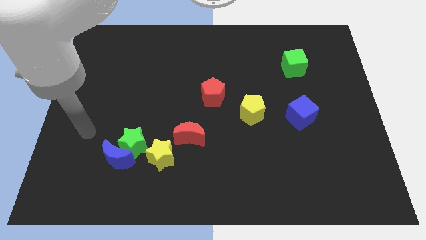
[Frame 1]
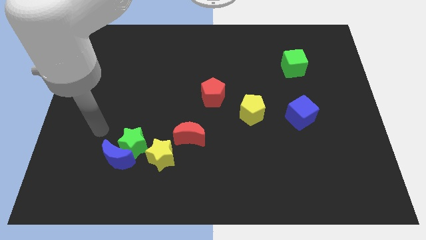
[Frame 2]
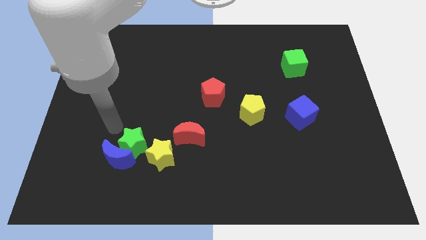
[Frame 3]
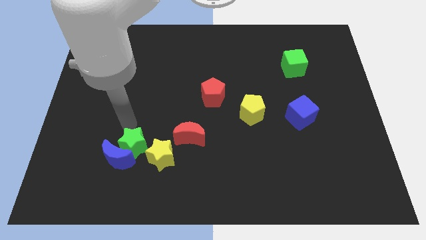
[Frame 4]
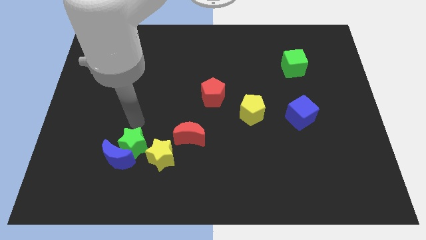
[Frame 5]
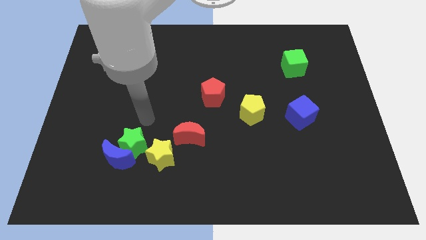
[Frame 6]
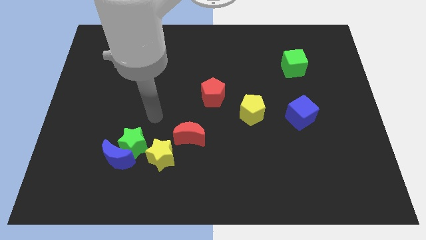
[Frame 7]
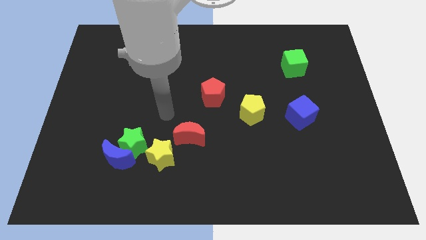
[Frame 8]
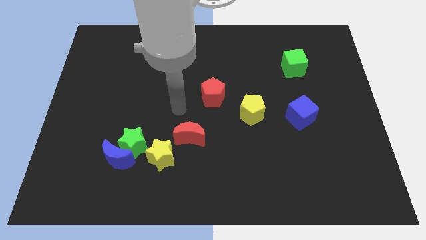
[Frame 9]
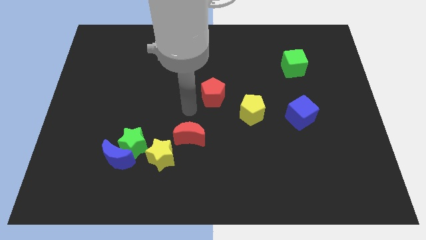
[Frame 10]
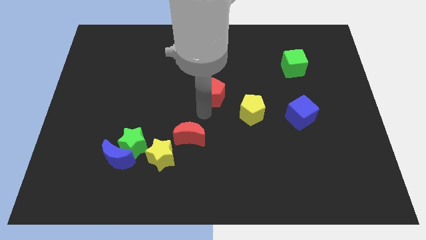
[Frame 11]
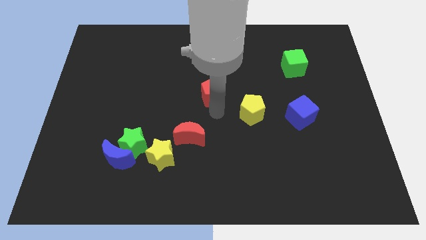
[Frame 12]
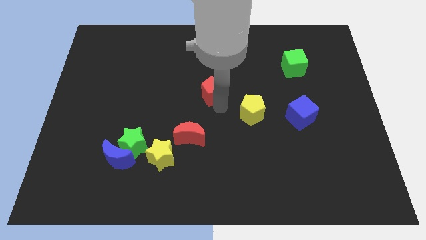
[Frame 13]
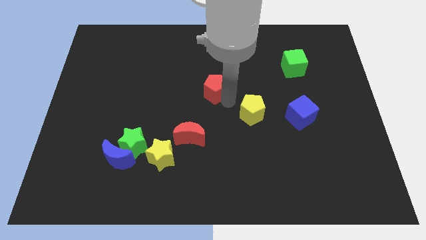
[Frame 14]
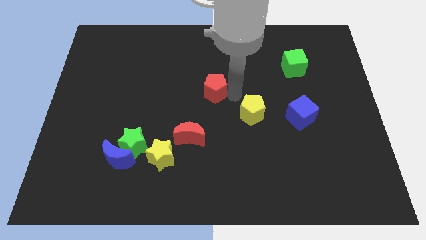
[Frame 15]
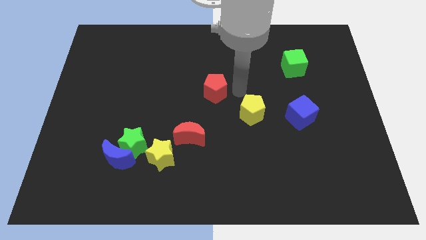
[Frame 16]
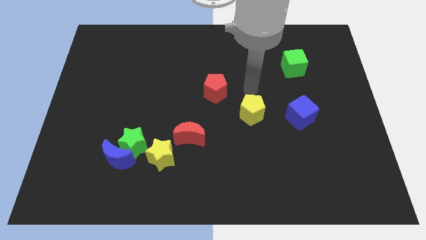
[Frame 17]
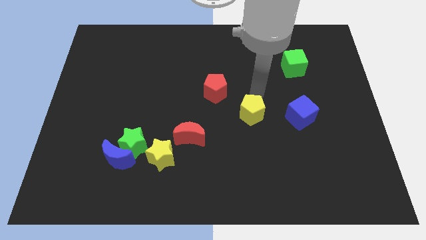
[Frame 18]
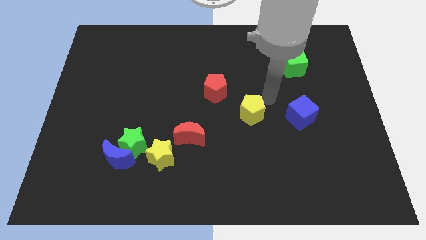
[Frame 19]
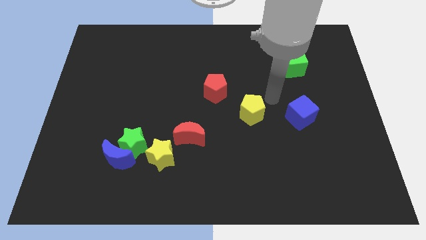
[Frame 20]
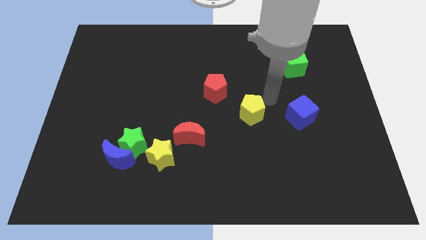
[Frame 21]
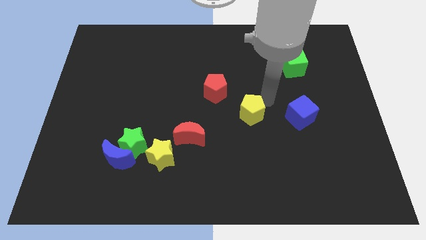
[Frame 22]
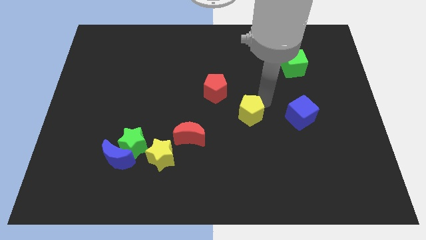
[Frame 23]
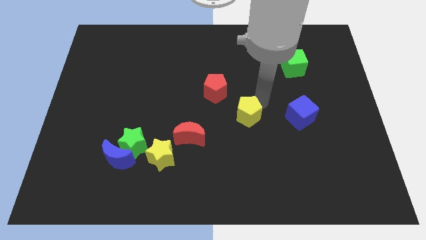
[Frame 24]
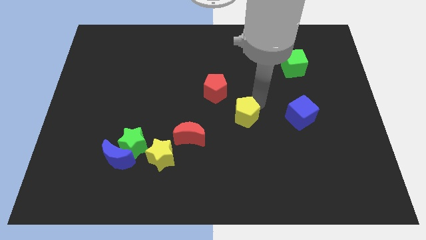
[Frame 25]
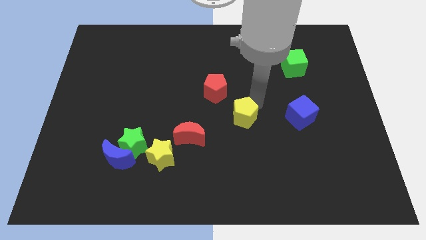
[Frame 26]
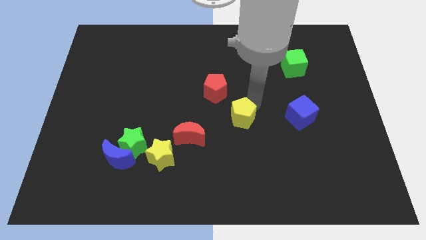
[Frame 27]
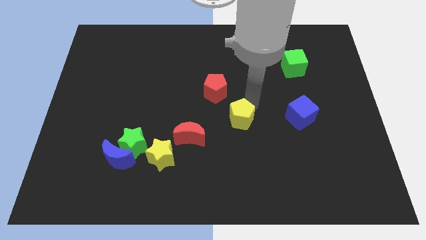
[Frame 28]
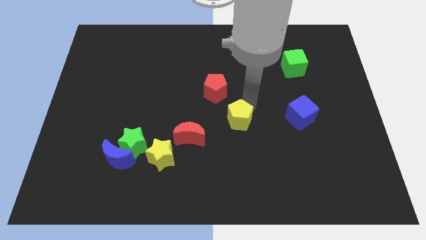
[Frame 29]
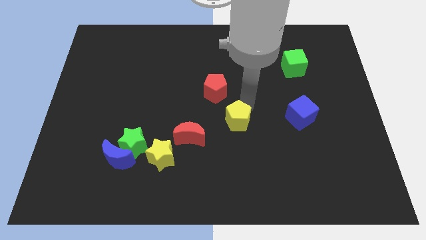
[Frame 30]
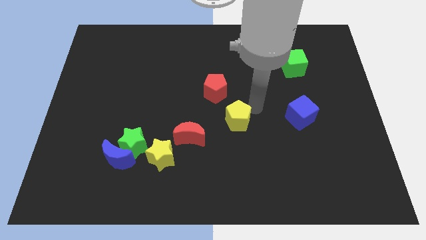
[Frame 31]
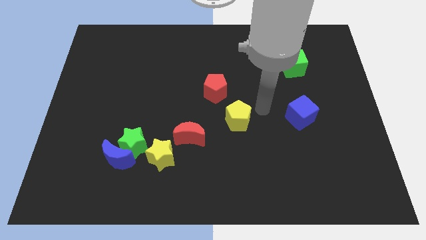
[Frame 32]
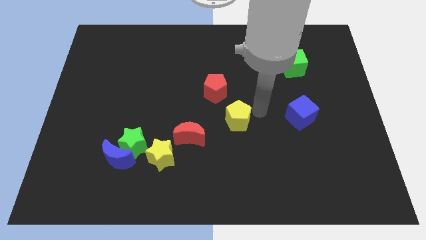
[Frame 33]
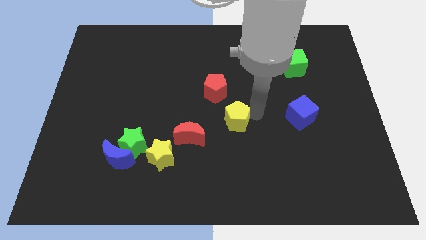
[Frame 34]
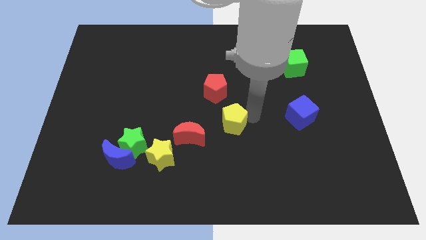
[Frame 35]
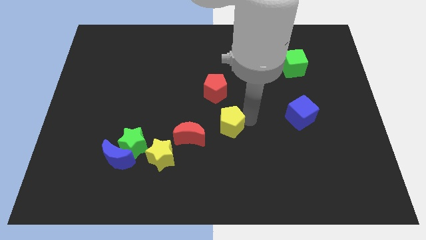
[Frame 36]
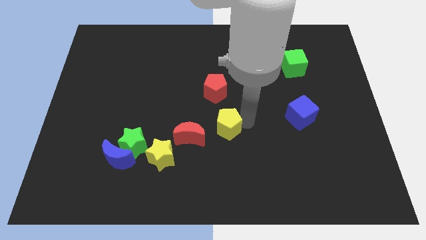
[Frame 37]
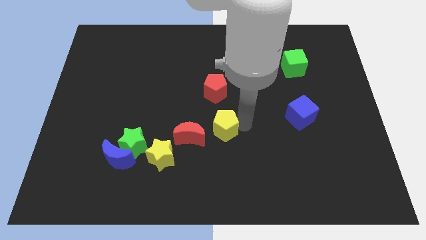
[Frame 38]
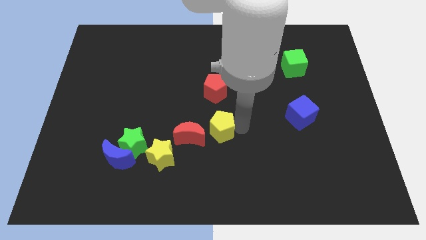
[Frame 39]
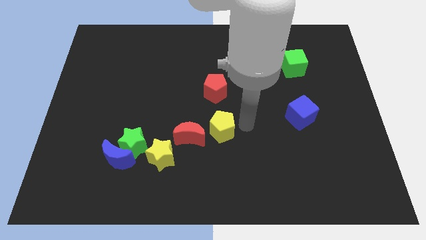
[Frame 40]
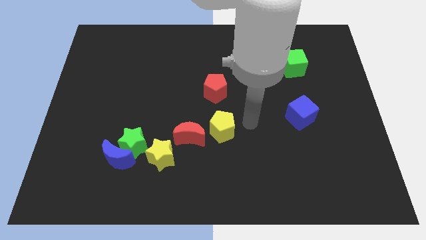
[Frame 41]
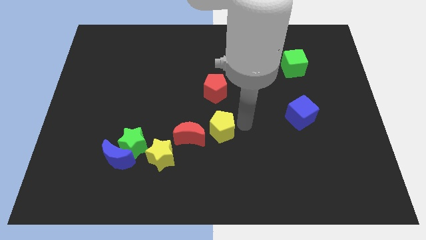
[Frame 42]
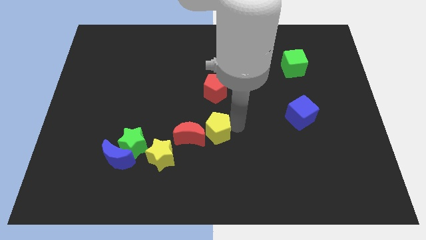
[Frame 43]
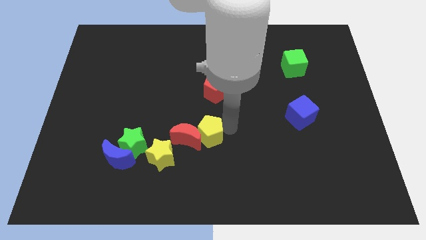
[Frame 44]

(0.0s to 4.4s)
slide the yellow pentagon close to the red moon

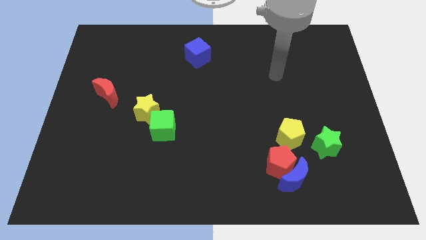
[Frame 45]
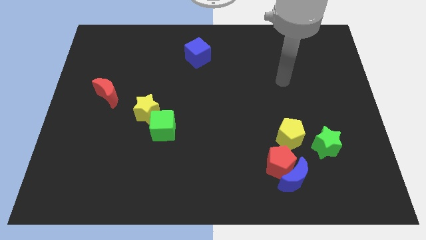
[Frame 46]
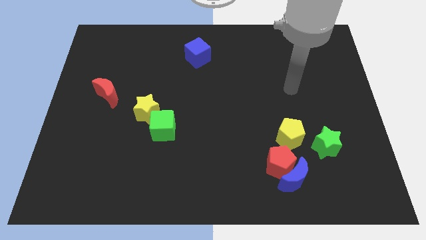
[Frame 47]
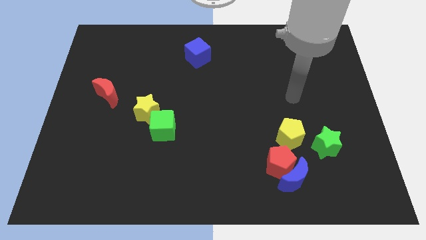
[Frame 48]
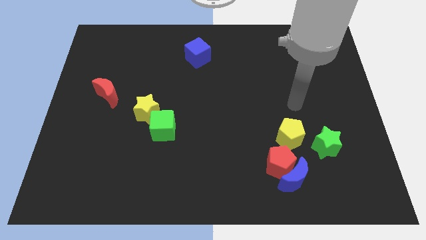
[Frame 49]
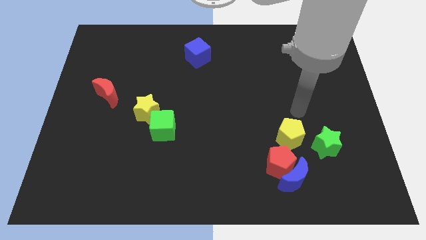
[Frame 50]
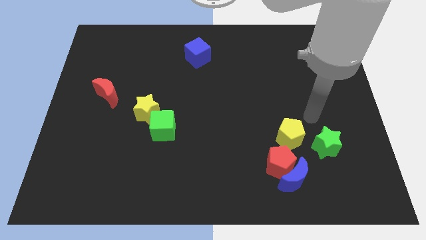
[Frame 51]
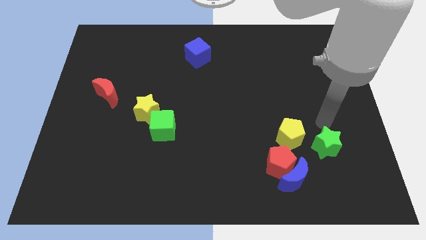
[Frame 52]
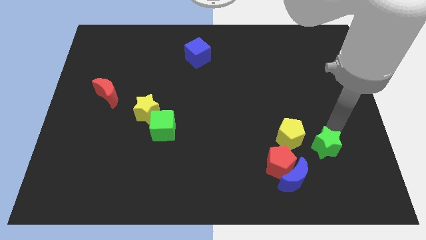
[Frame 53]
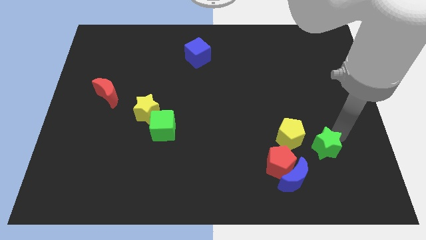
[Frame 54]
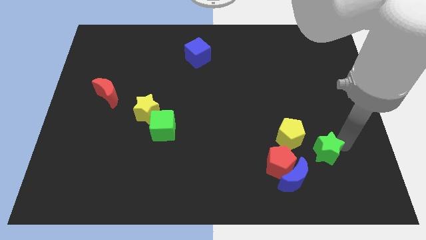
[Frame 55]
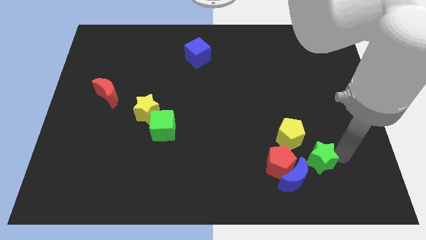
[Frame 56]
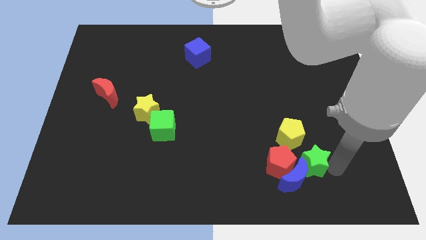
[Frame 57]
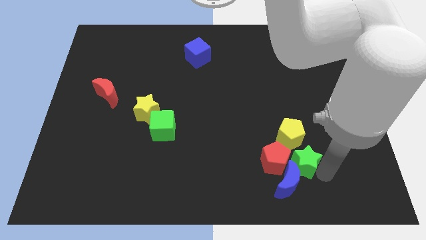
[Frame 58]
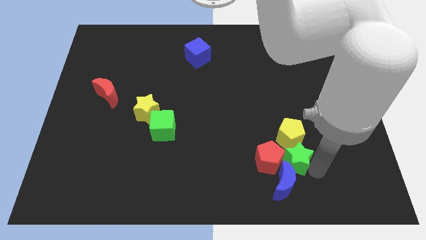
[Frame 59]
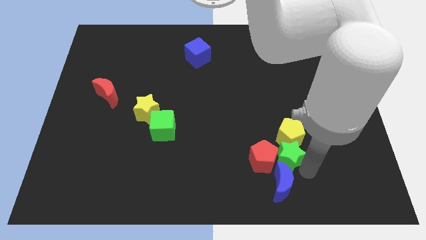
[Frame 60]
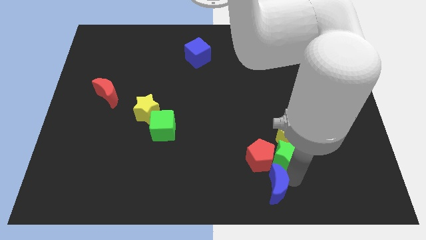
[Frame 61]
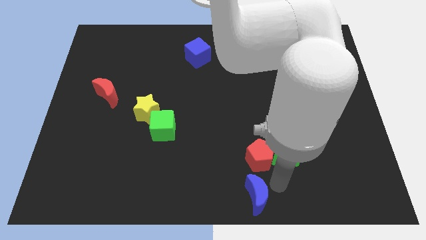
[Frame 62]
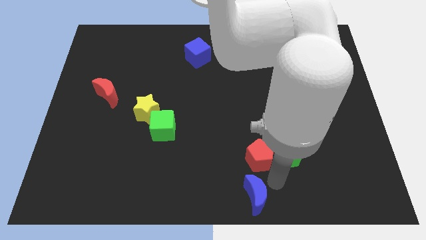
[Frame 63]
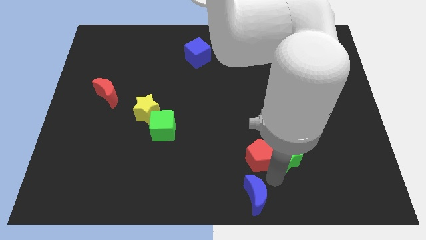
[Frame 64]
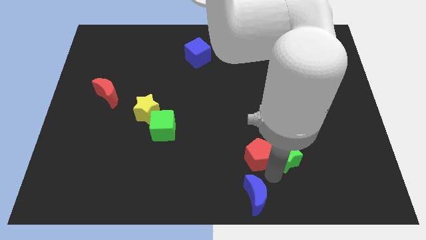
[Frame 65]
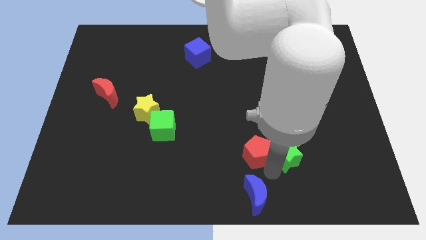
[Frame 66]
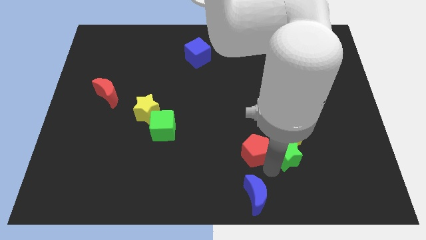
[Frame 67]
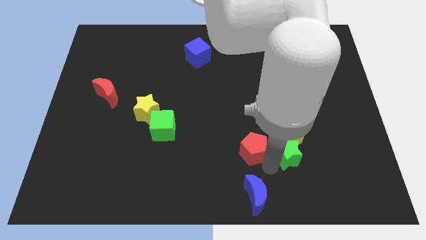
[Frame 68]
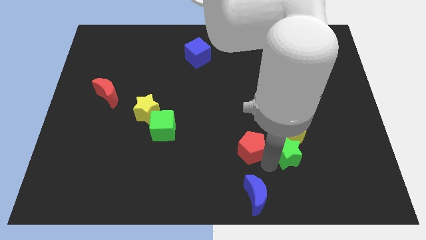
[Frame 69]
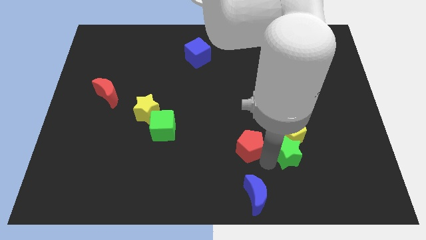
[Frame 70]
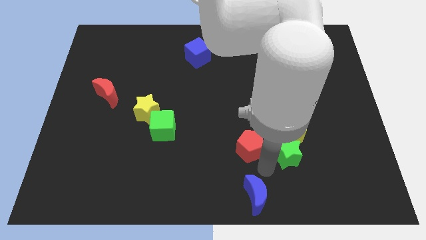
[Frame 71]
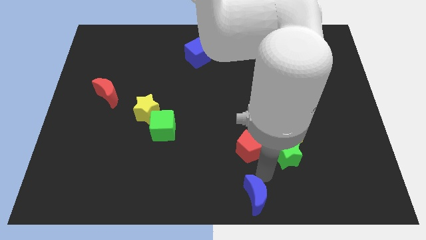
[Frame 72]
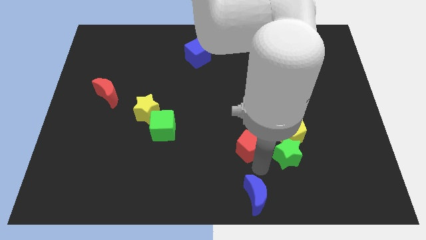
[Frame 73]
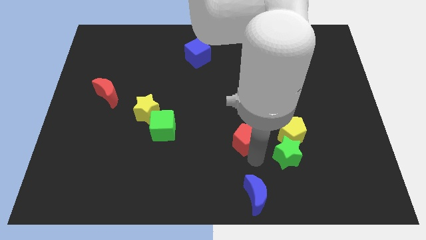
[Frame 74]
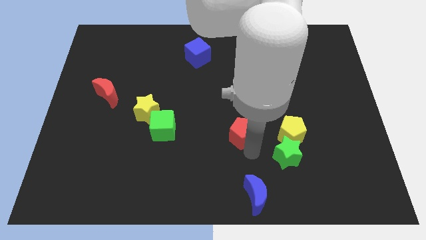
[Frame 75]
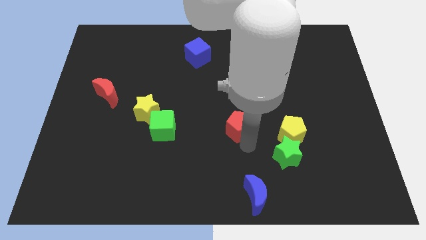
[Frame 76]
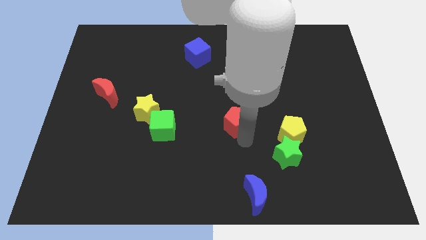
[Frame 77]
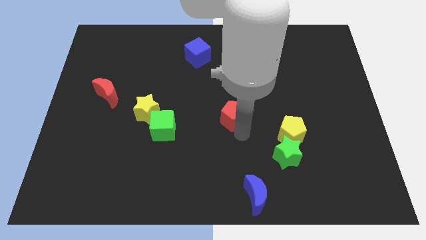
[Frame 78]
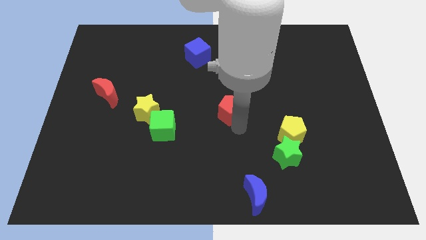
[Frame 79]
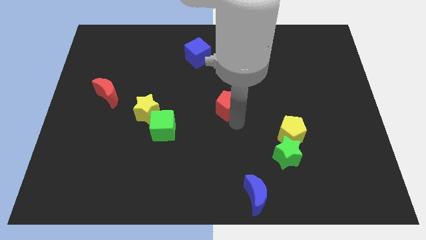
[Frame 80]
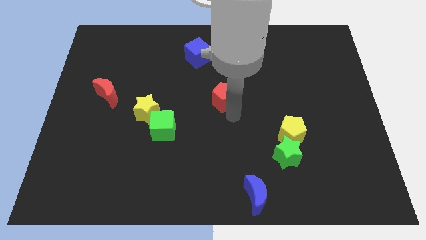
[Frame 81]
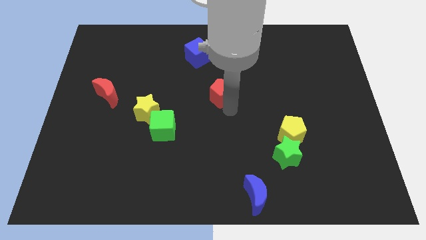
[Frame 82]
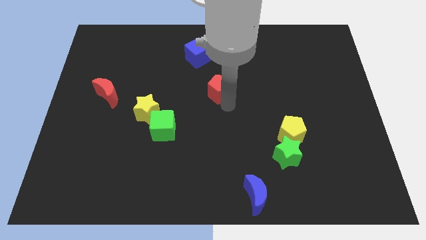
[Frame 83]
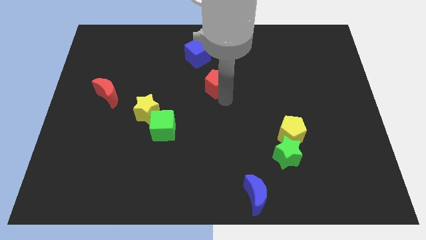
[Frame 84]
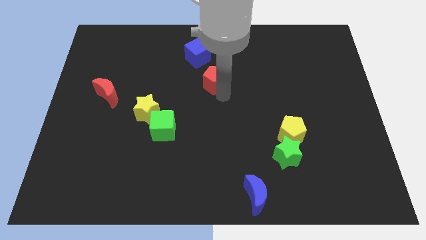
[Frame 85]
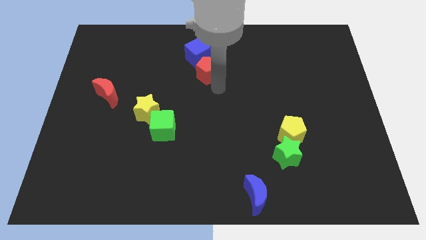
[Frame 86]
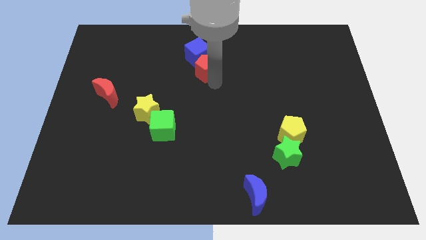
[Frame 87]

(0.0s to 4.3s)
push the red pentagon next to the blue cube
